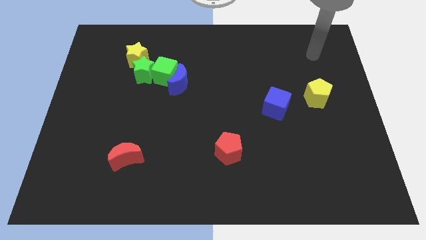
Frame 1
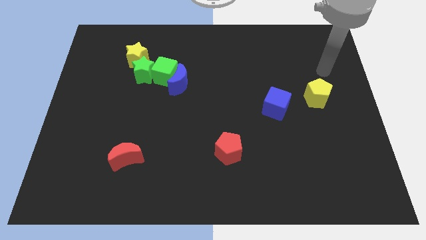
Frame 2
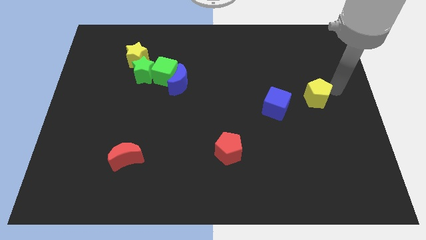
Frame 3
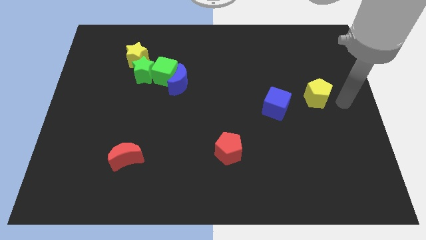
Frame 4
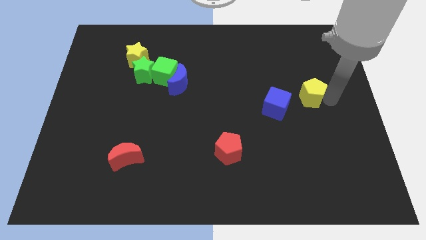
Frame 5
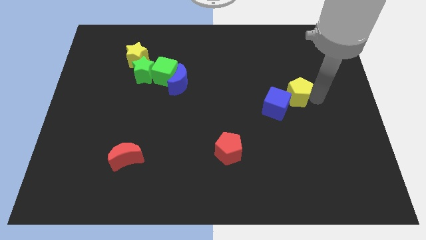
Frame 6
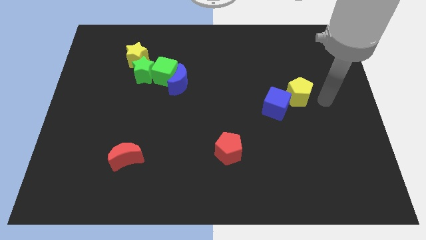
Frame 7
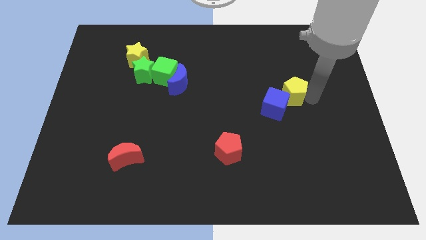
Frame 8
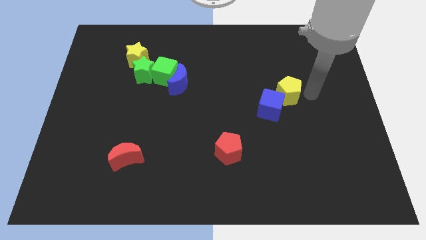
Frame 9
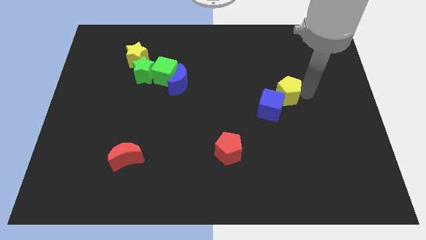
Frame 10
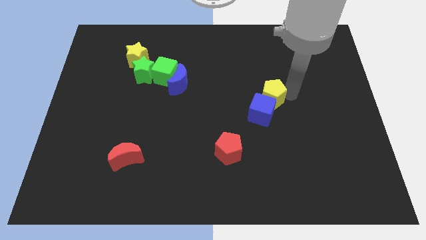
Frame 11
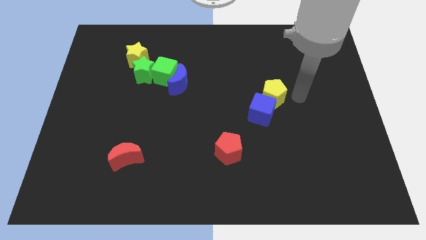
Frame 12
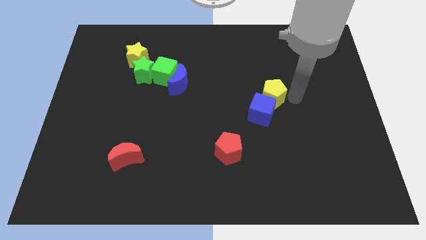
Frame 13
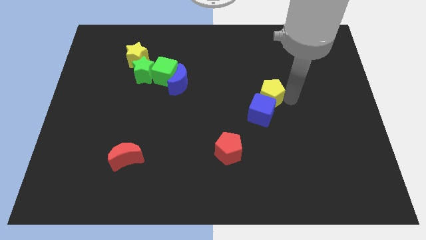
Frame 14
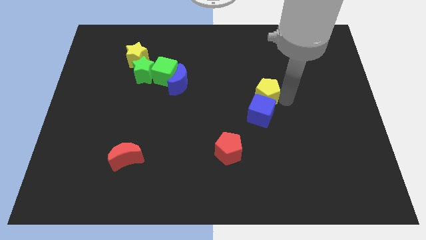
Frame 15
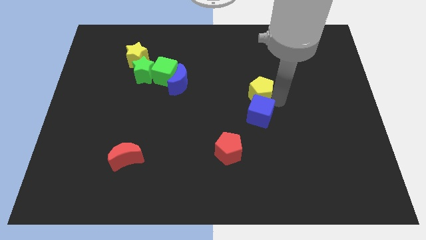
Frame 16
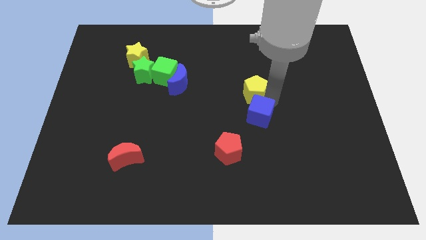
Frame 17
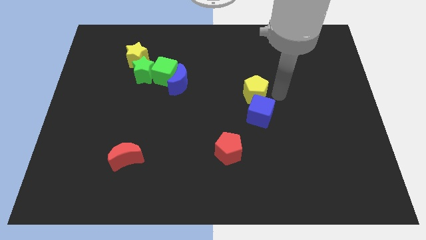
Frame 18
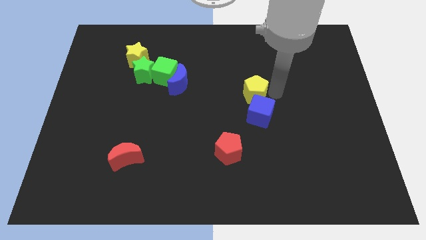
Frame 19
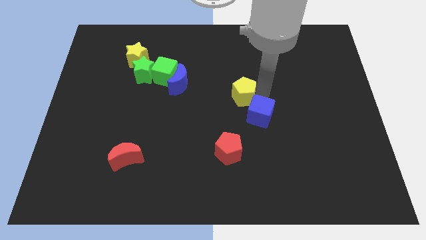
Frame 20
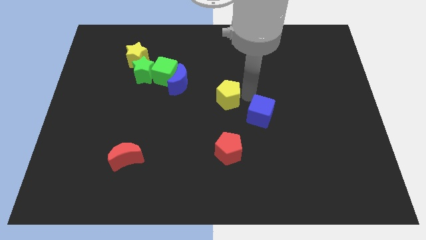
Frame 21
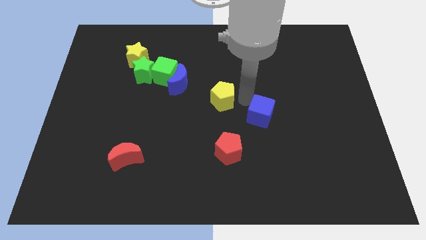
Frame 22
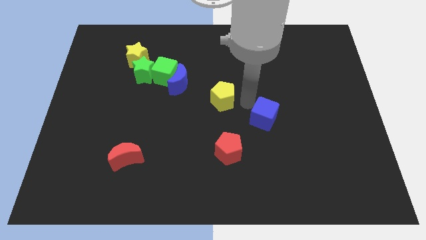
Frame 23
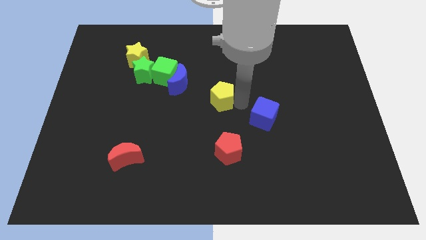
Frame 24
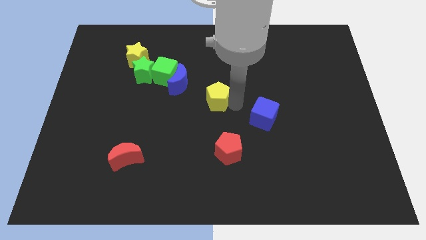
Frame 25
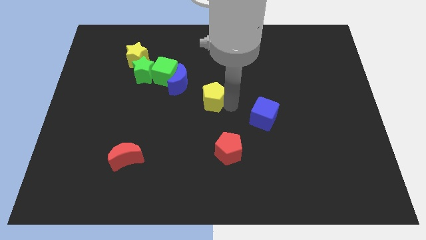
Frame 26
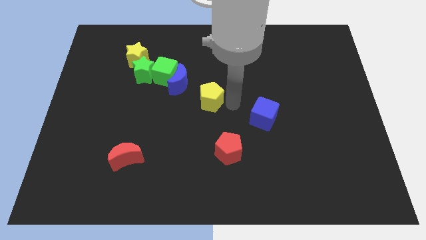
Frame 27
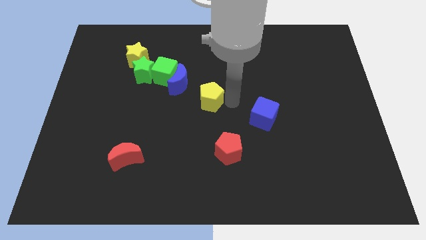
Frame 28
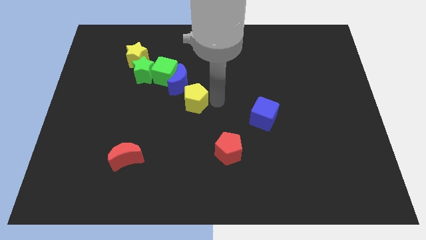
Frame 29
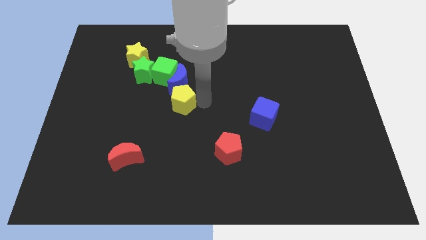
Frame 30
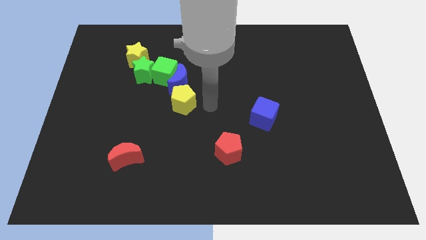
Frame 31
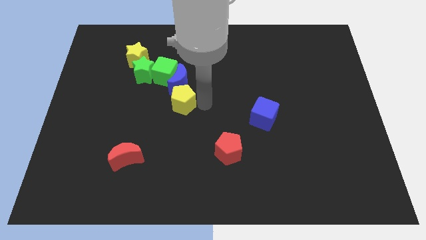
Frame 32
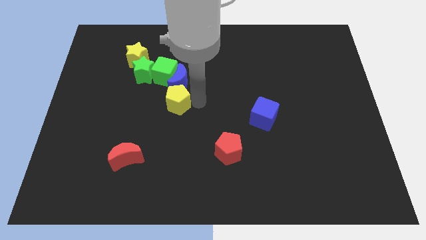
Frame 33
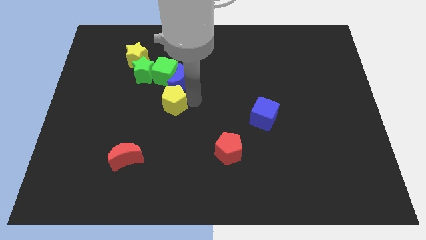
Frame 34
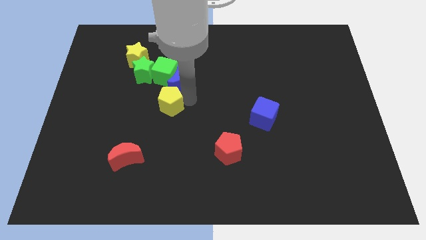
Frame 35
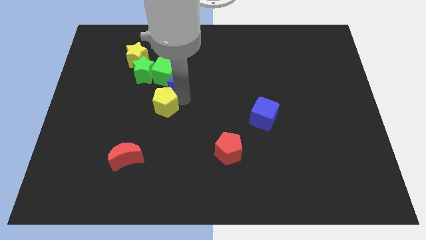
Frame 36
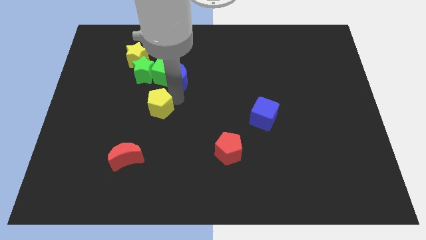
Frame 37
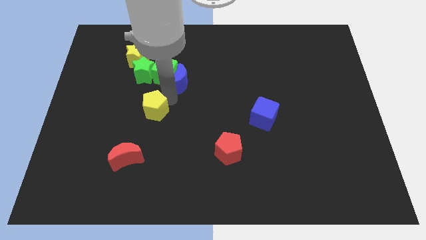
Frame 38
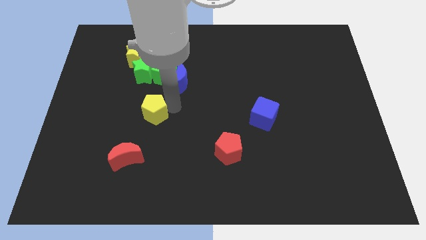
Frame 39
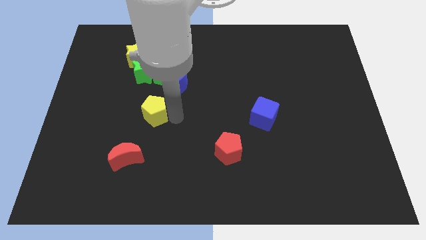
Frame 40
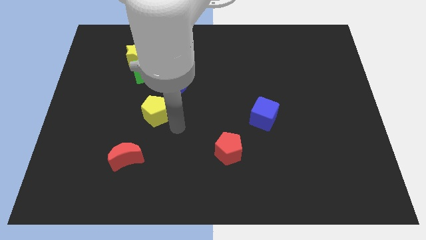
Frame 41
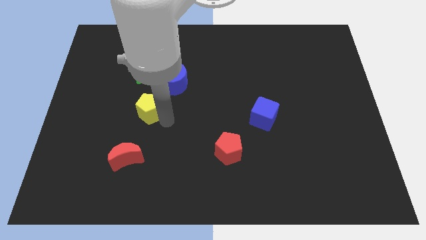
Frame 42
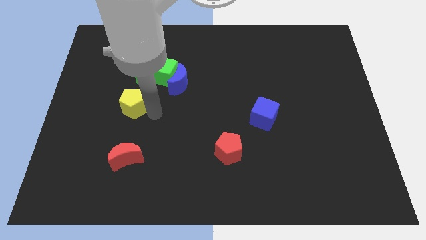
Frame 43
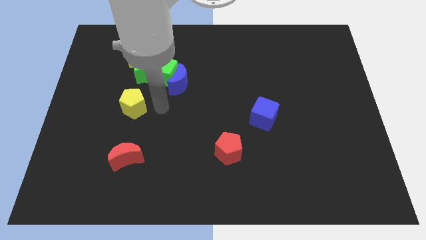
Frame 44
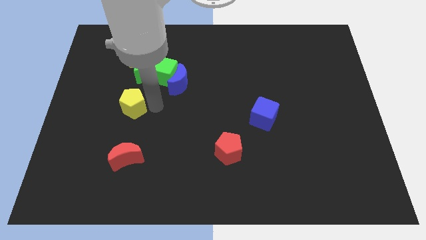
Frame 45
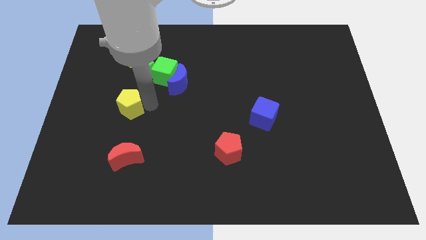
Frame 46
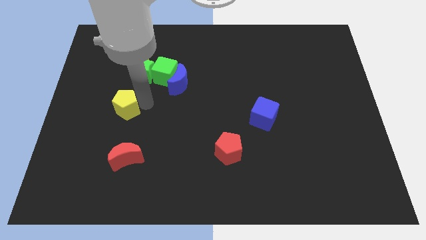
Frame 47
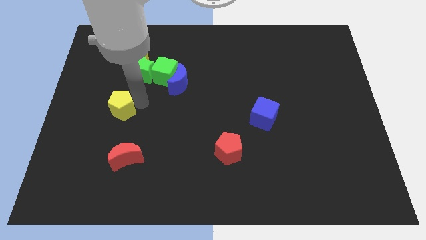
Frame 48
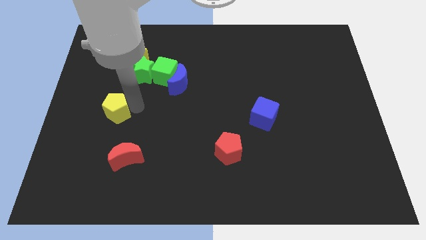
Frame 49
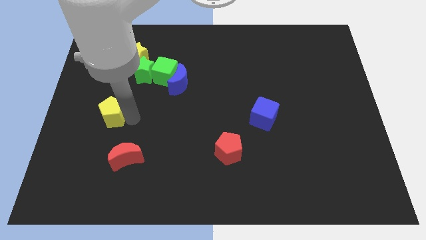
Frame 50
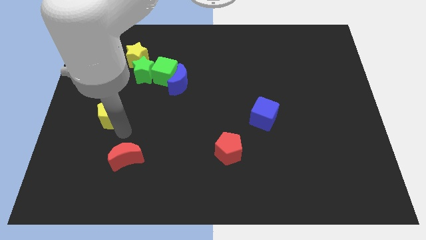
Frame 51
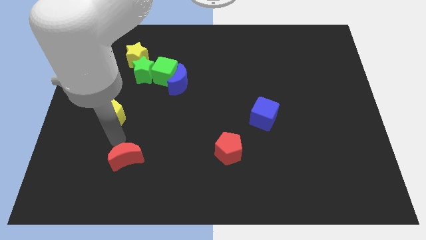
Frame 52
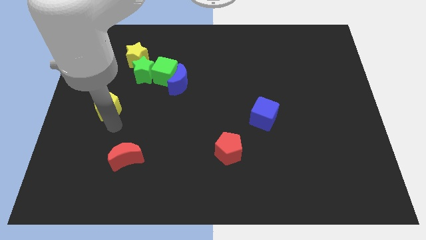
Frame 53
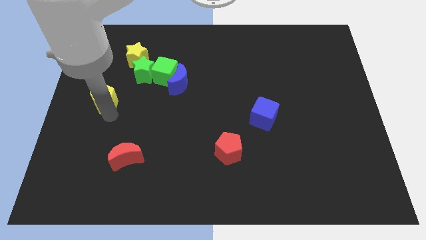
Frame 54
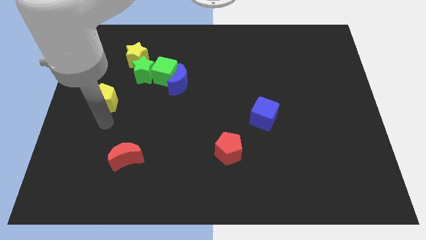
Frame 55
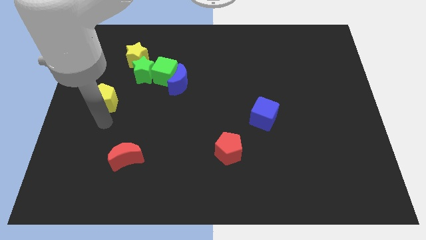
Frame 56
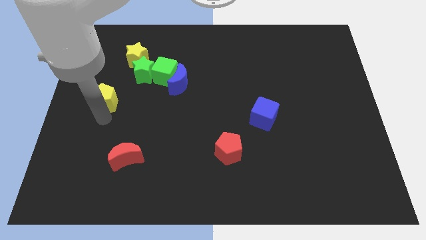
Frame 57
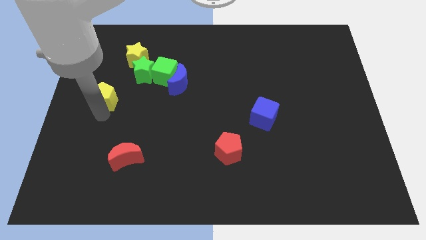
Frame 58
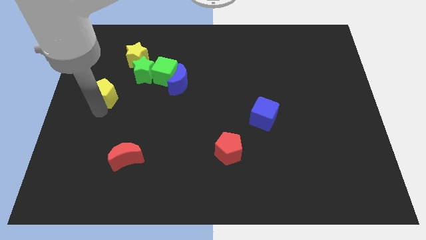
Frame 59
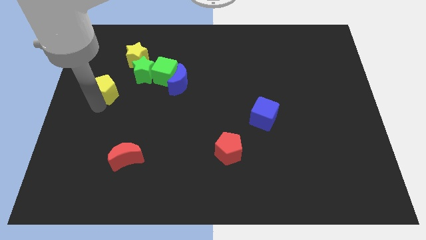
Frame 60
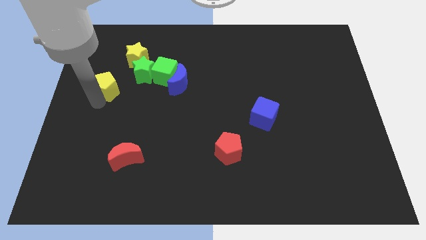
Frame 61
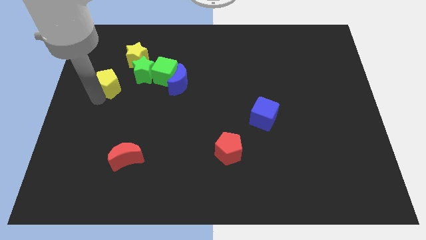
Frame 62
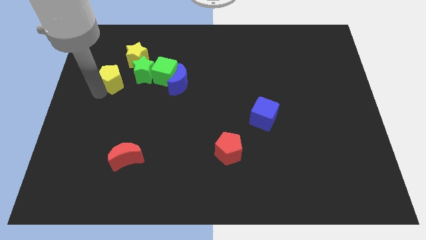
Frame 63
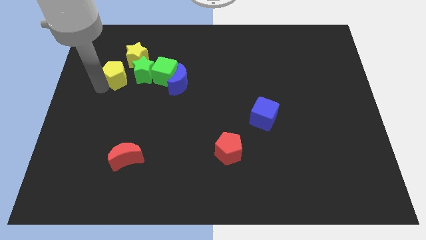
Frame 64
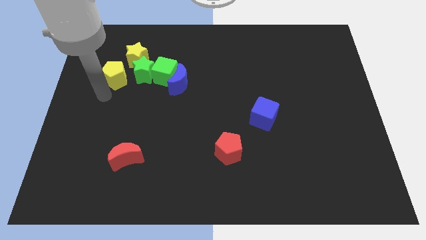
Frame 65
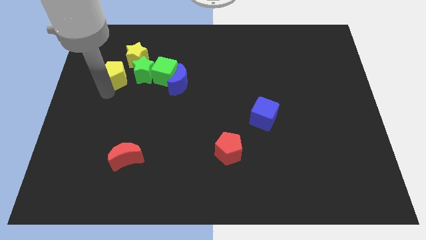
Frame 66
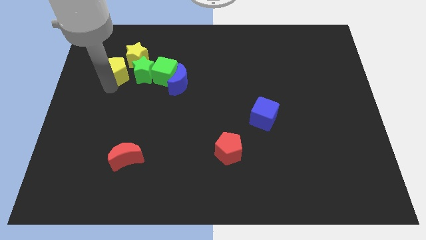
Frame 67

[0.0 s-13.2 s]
push the yellow pentagon to the top left of the green star

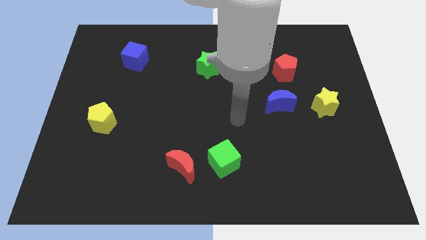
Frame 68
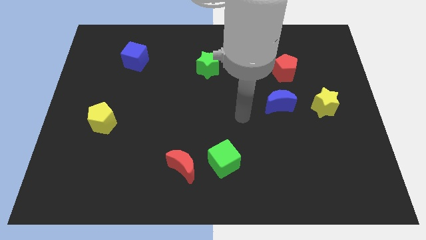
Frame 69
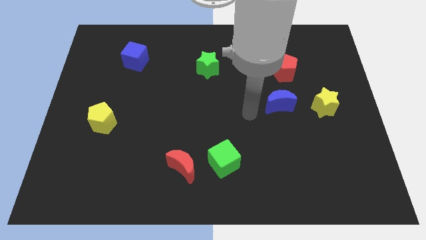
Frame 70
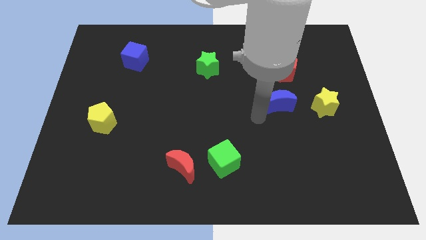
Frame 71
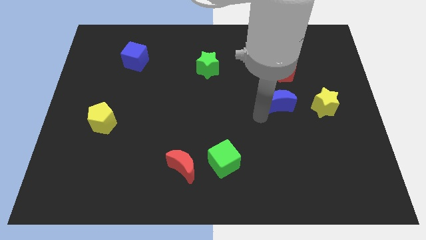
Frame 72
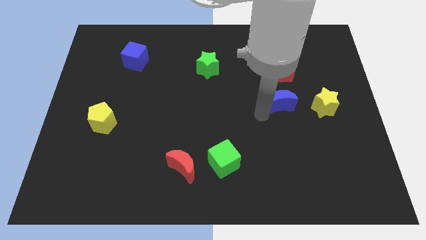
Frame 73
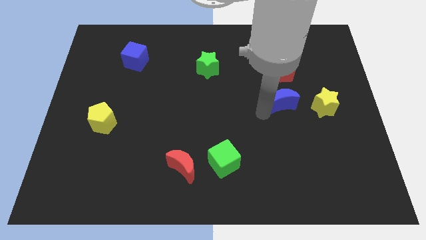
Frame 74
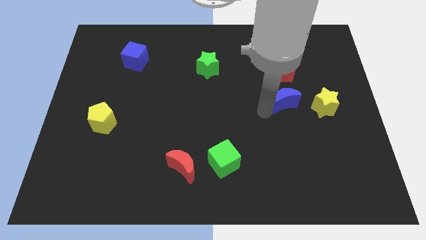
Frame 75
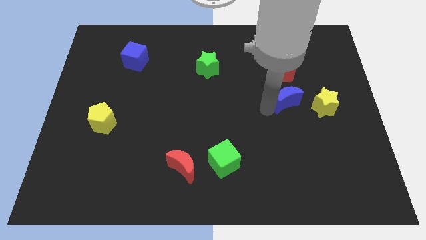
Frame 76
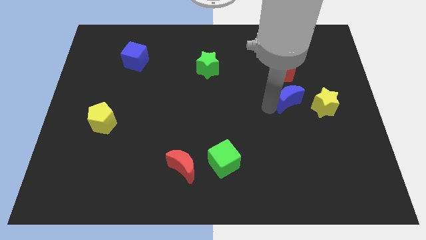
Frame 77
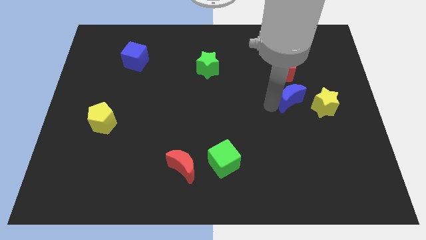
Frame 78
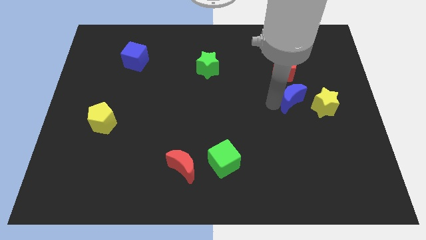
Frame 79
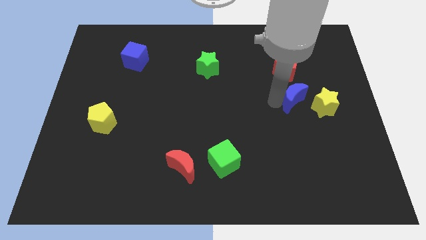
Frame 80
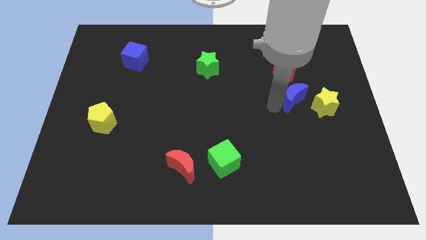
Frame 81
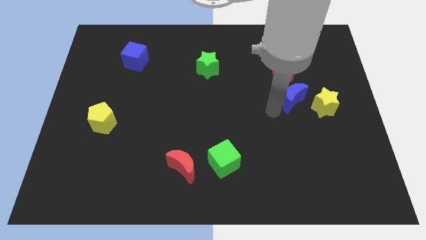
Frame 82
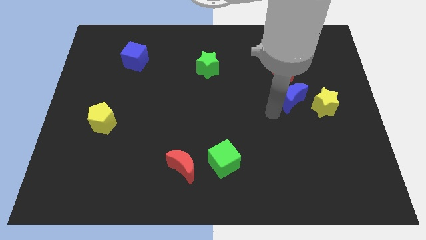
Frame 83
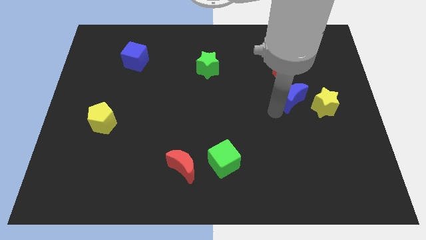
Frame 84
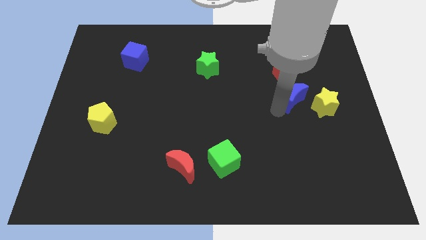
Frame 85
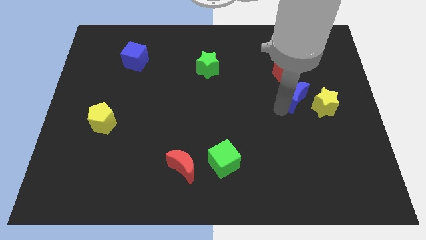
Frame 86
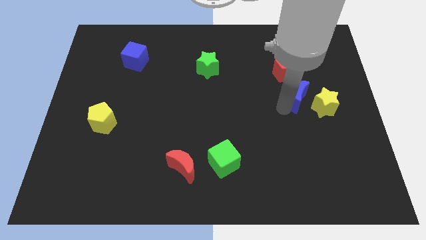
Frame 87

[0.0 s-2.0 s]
move the blue moon to the bottom right side of the red pentagon
